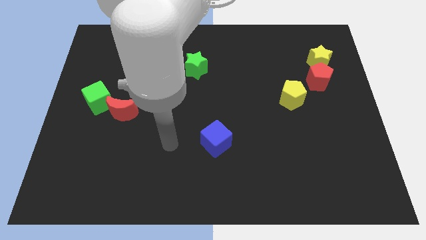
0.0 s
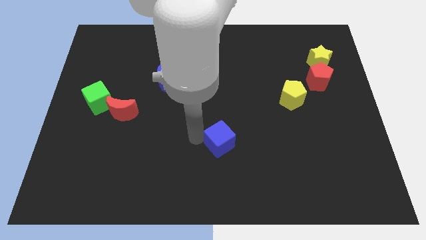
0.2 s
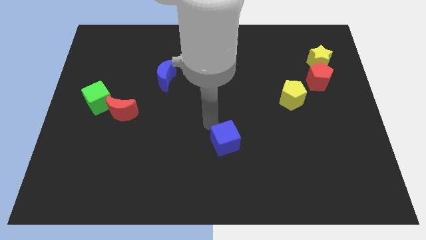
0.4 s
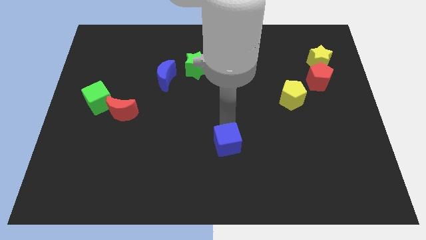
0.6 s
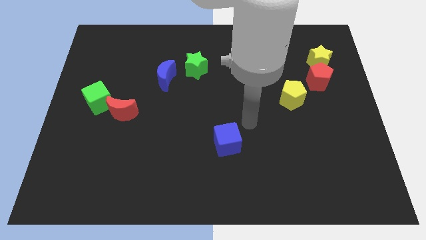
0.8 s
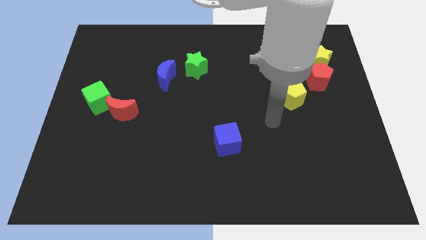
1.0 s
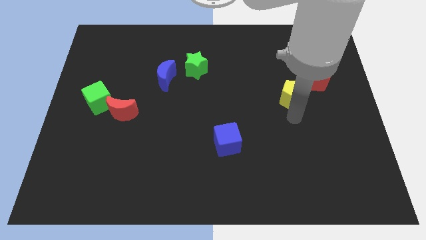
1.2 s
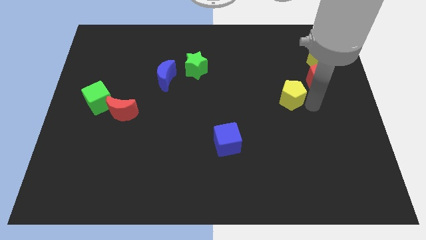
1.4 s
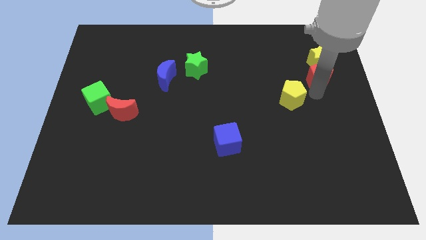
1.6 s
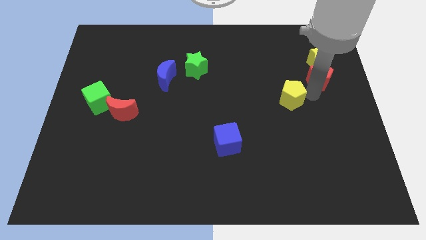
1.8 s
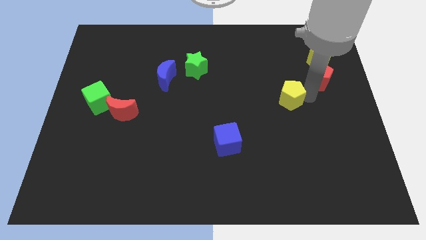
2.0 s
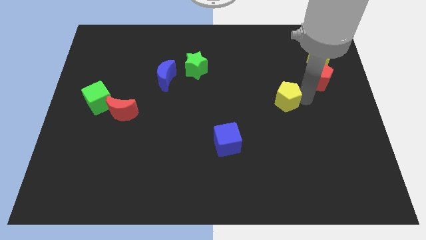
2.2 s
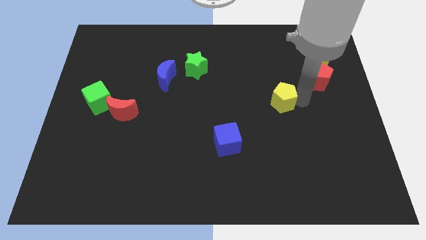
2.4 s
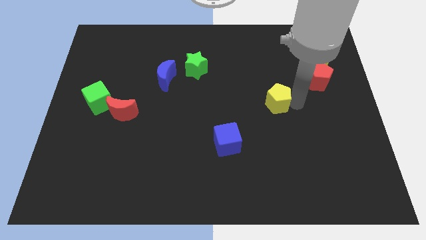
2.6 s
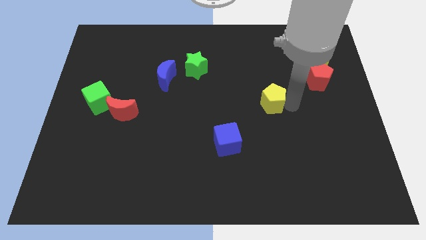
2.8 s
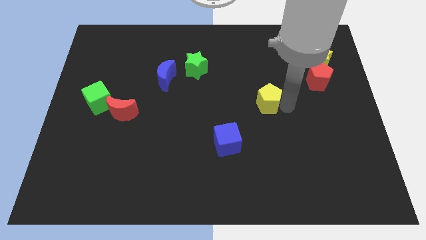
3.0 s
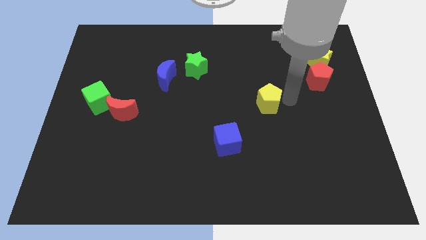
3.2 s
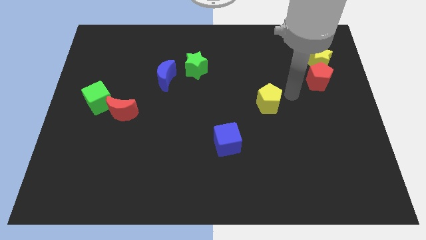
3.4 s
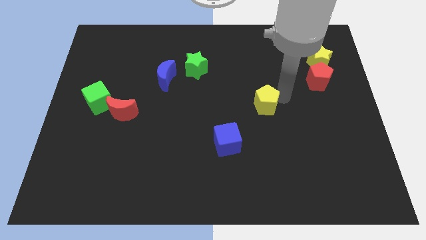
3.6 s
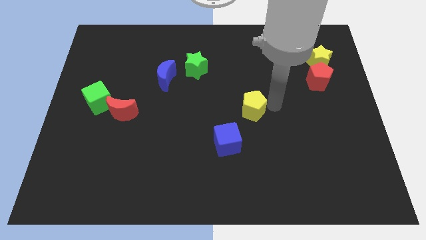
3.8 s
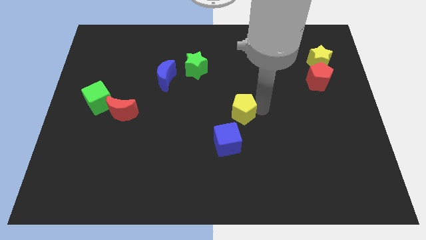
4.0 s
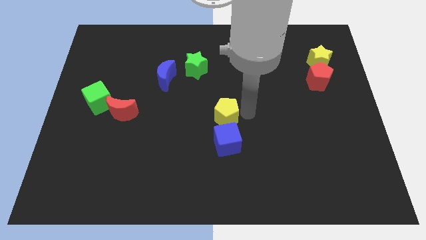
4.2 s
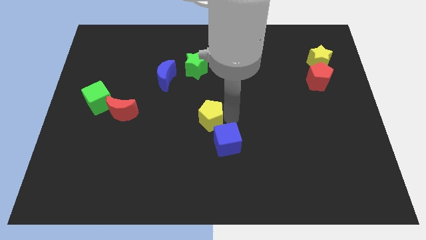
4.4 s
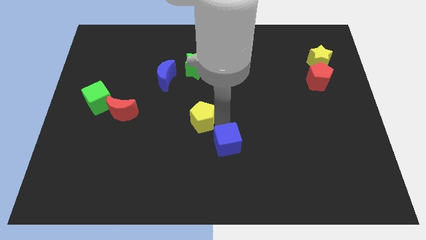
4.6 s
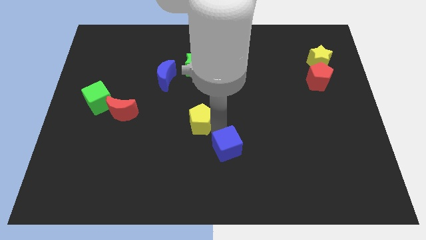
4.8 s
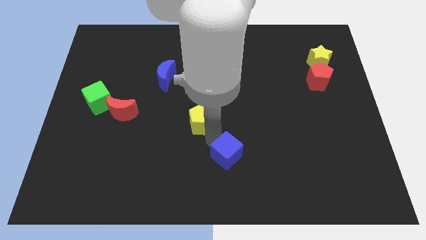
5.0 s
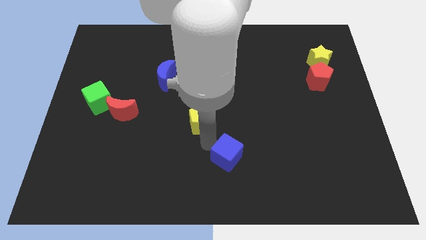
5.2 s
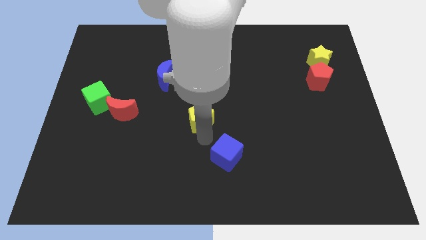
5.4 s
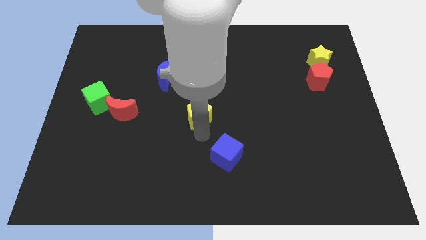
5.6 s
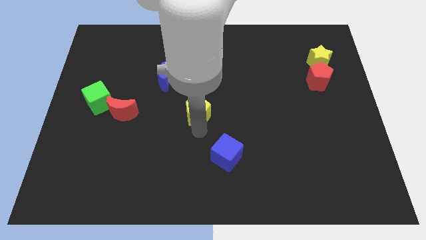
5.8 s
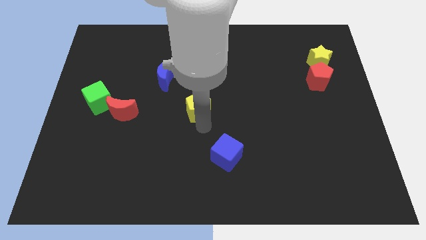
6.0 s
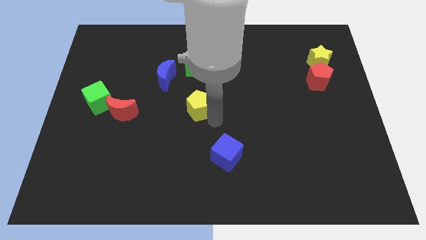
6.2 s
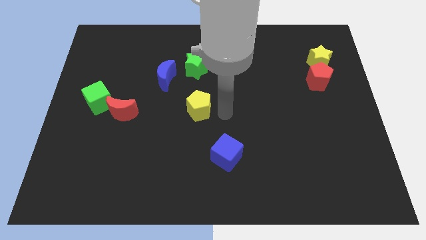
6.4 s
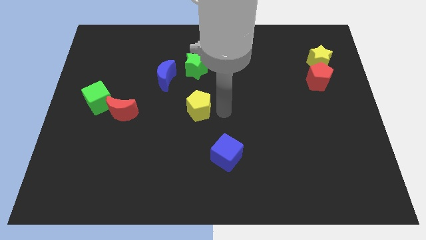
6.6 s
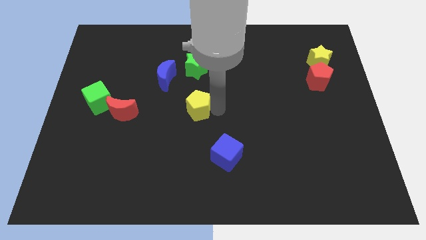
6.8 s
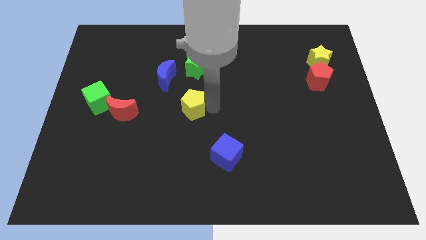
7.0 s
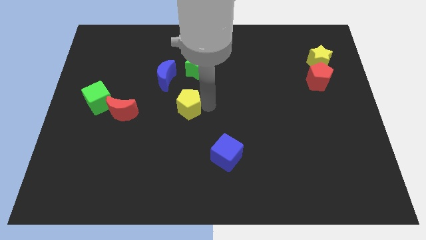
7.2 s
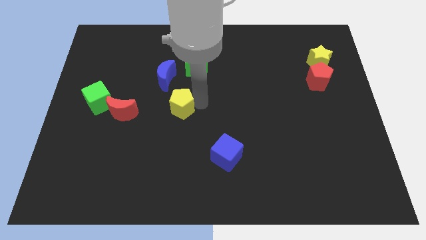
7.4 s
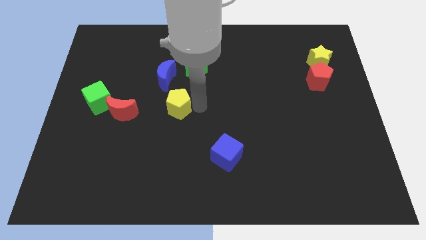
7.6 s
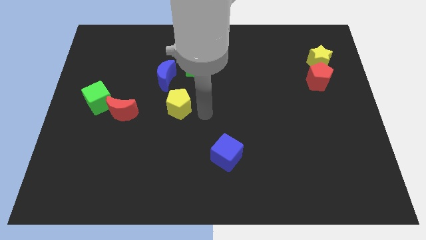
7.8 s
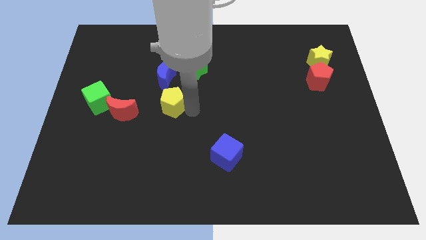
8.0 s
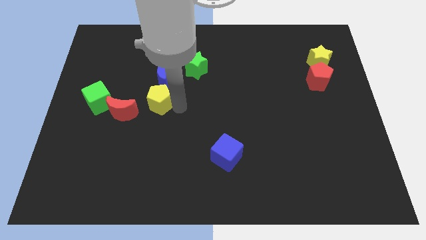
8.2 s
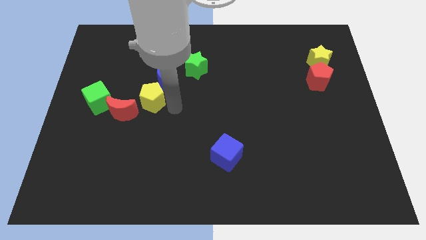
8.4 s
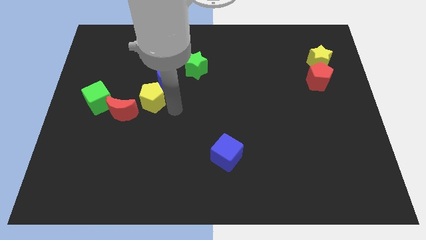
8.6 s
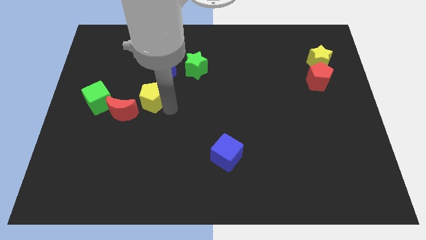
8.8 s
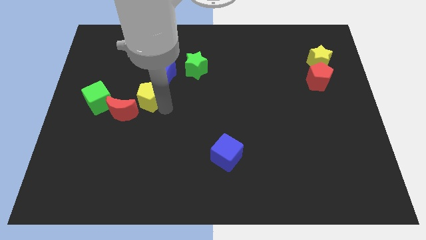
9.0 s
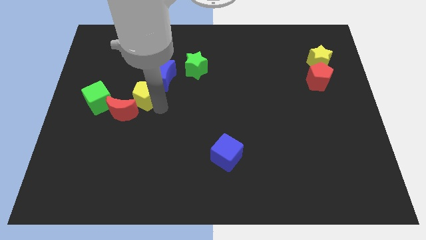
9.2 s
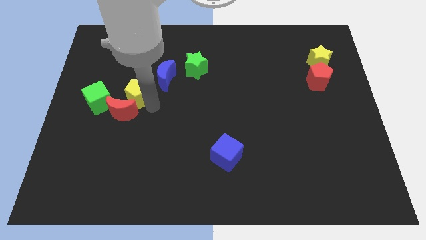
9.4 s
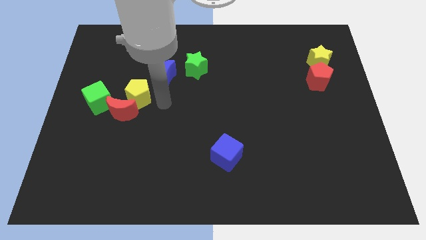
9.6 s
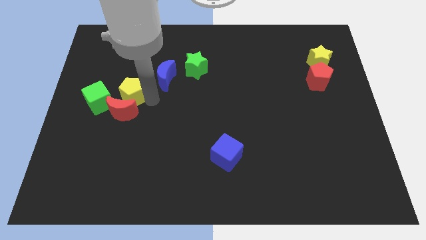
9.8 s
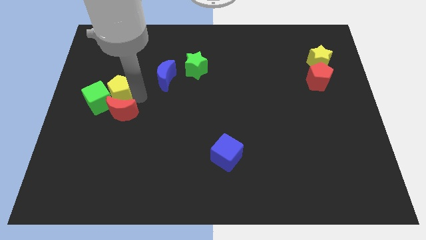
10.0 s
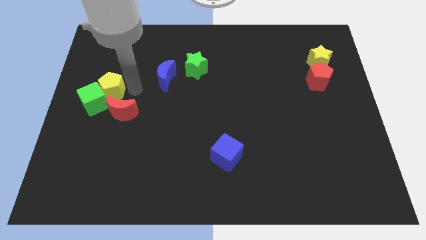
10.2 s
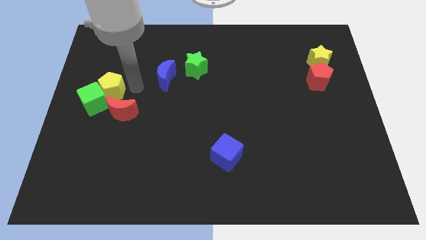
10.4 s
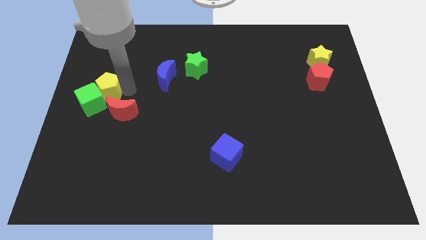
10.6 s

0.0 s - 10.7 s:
move the yellow pentagon to the left side of the board

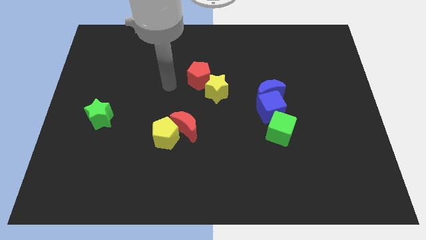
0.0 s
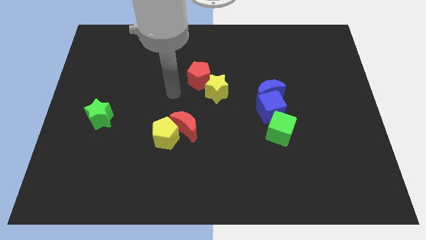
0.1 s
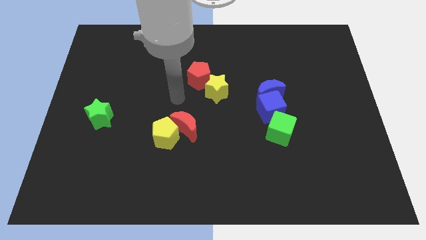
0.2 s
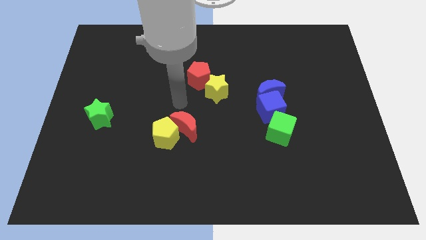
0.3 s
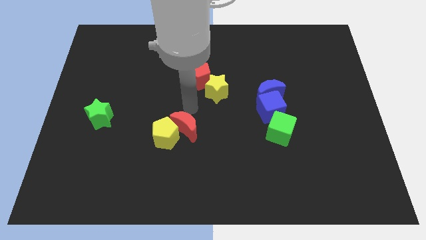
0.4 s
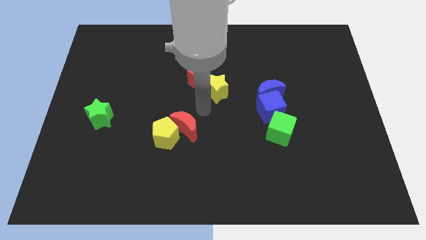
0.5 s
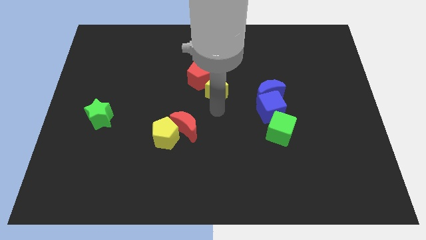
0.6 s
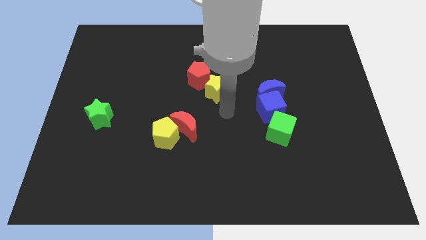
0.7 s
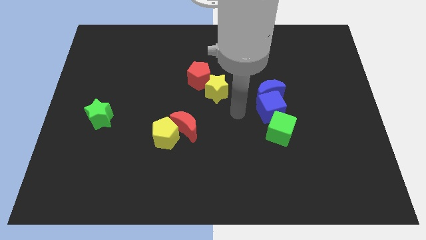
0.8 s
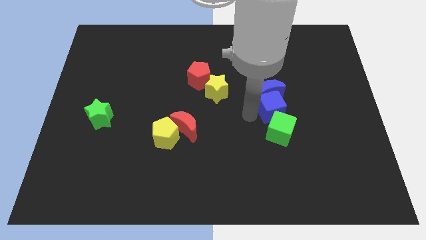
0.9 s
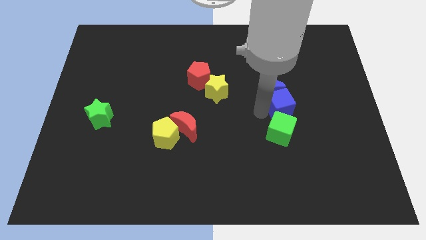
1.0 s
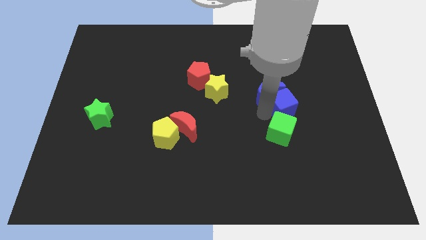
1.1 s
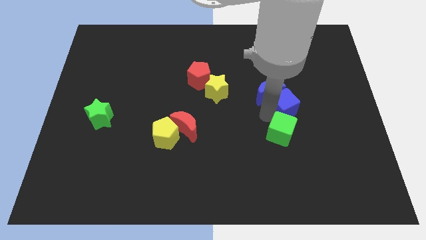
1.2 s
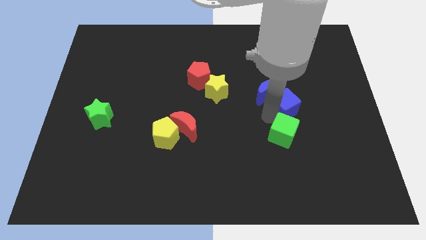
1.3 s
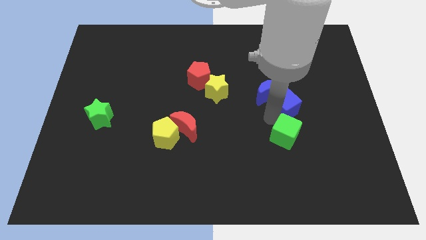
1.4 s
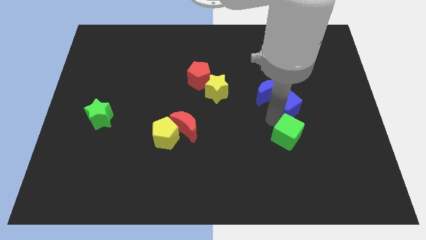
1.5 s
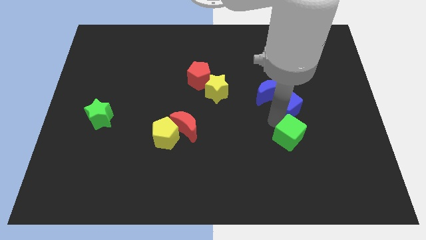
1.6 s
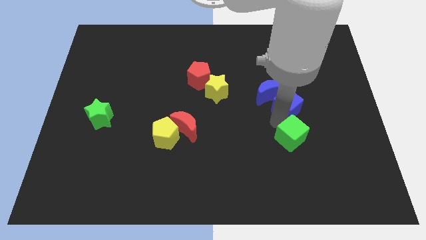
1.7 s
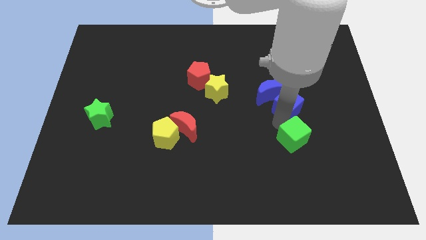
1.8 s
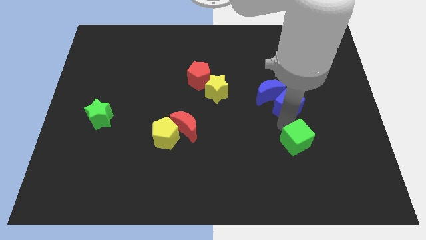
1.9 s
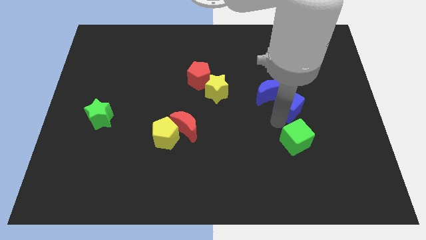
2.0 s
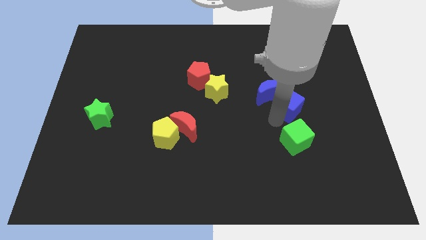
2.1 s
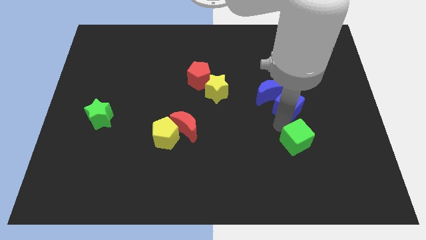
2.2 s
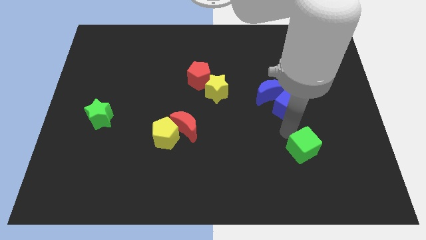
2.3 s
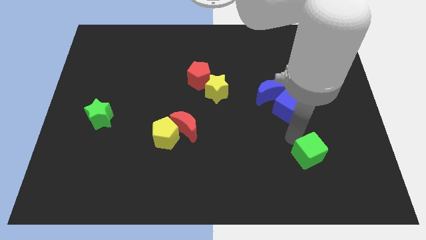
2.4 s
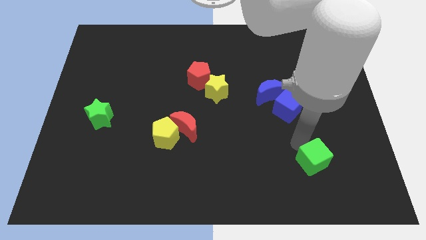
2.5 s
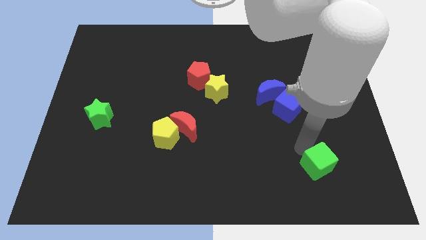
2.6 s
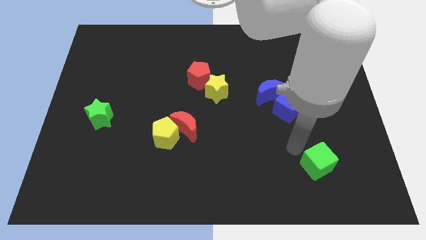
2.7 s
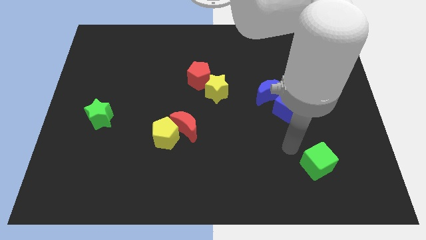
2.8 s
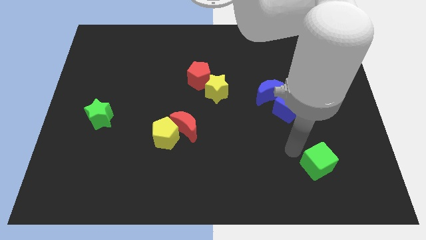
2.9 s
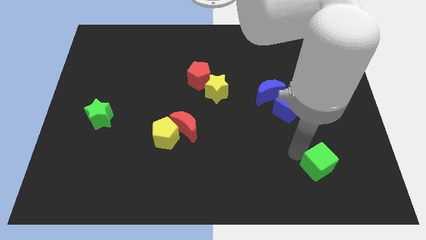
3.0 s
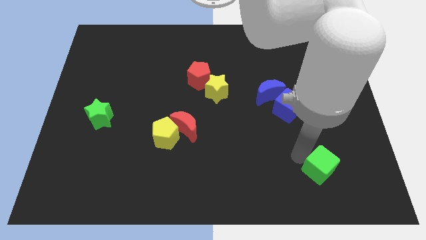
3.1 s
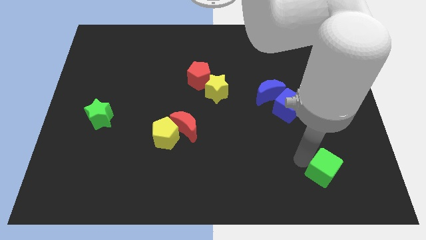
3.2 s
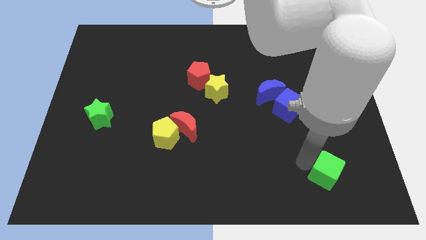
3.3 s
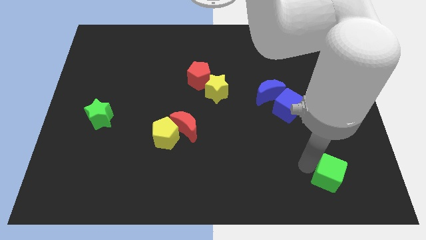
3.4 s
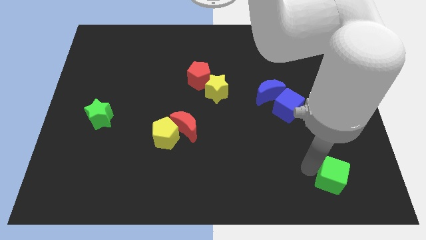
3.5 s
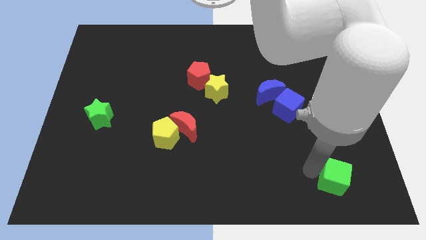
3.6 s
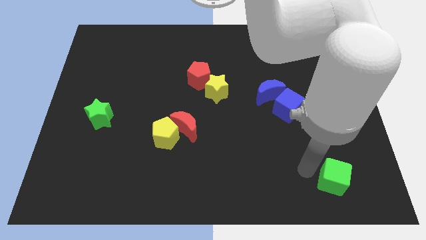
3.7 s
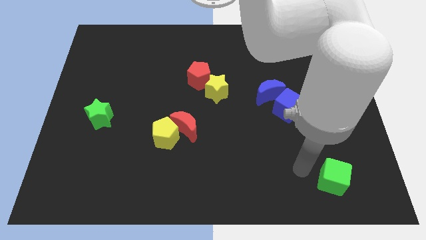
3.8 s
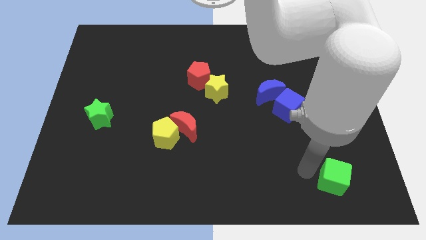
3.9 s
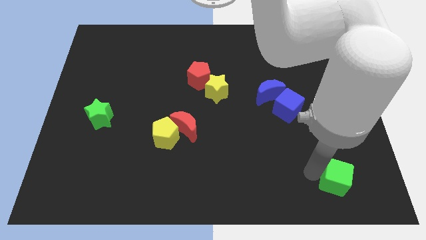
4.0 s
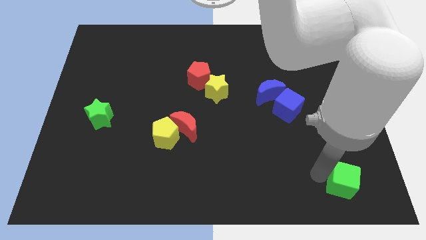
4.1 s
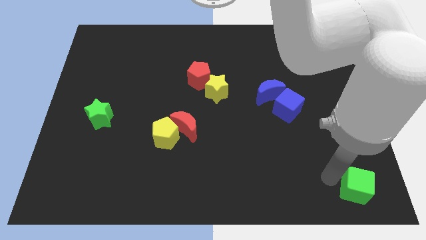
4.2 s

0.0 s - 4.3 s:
slide the green cube to the bottom right
